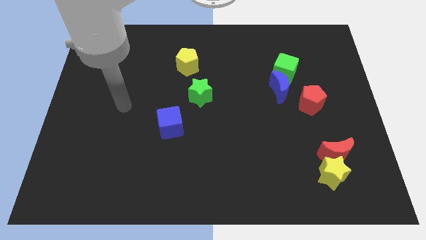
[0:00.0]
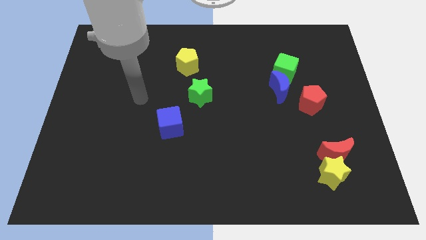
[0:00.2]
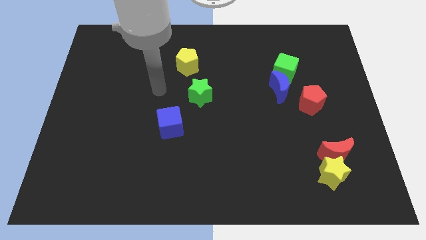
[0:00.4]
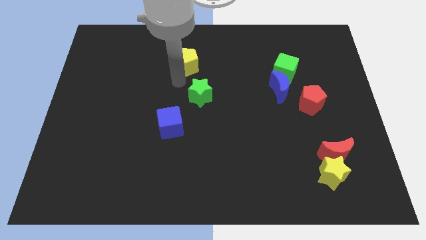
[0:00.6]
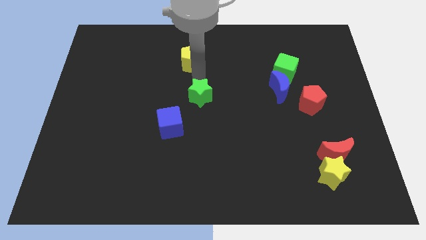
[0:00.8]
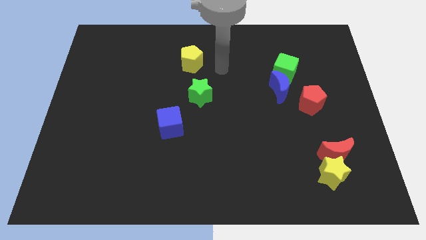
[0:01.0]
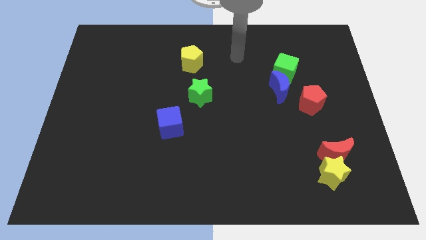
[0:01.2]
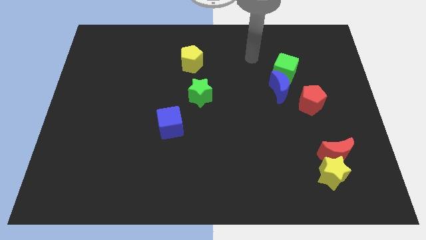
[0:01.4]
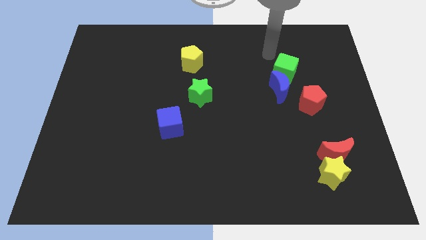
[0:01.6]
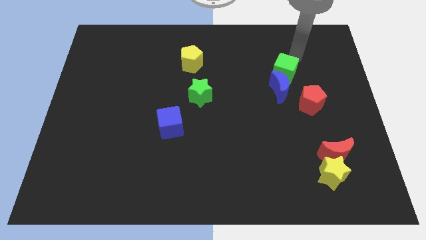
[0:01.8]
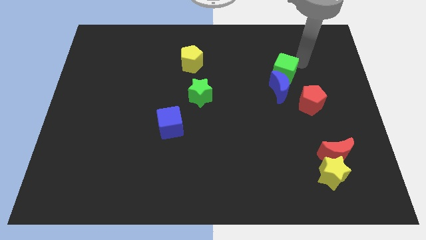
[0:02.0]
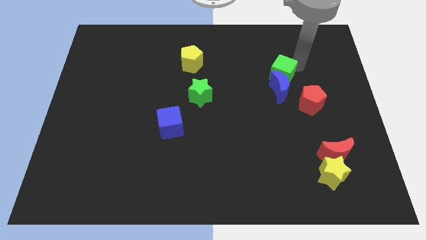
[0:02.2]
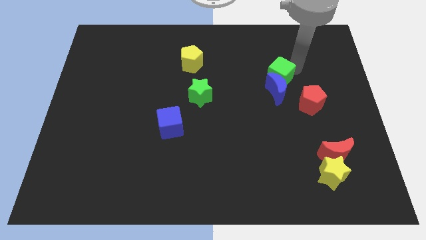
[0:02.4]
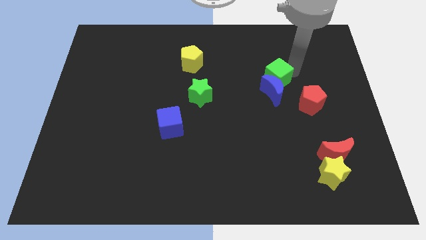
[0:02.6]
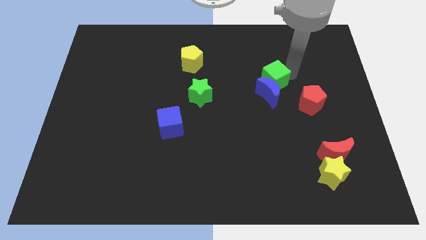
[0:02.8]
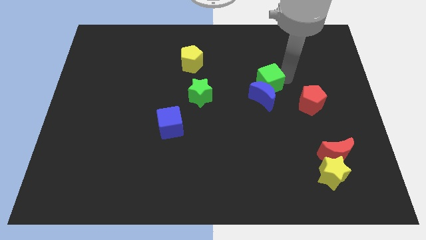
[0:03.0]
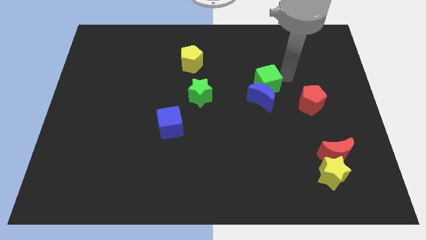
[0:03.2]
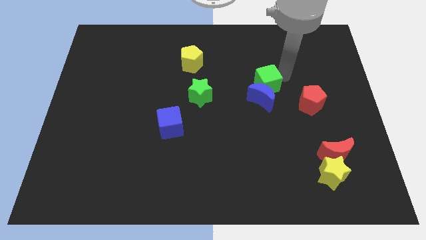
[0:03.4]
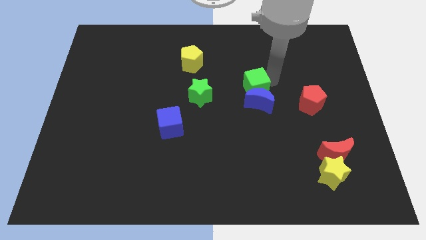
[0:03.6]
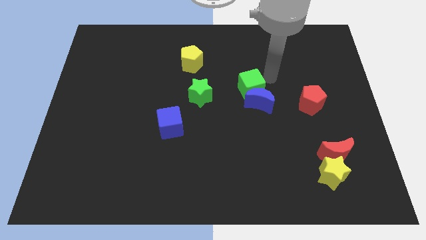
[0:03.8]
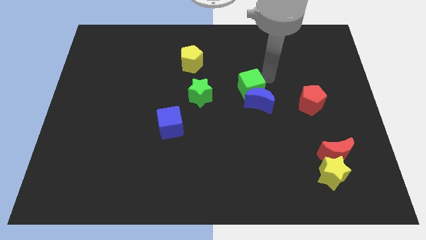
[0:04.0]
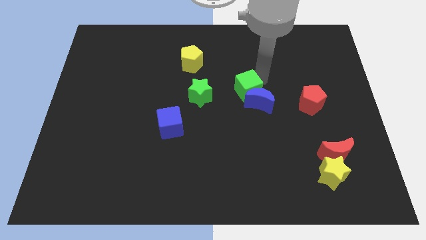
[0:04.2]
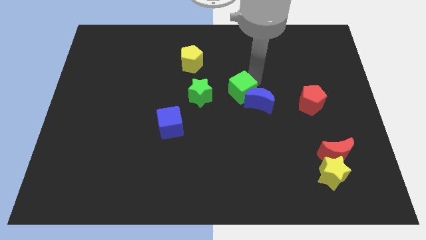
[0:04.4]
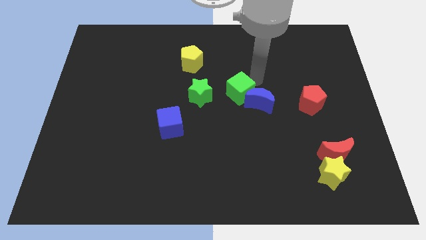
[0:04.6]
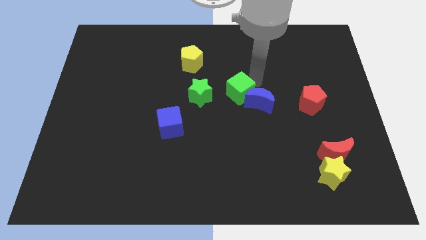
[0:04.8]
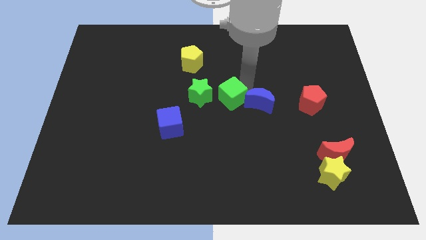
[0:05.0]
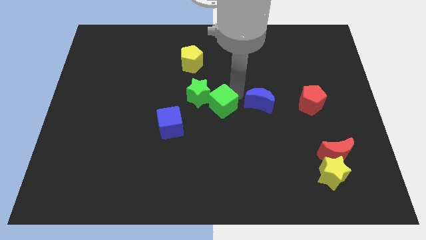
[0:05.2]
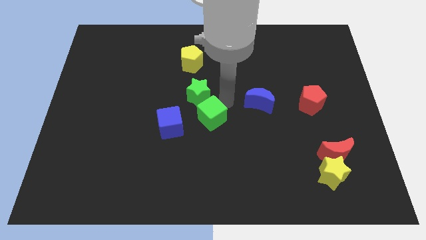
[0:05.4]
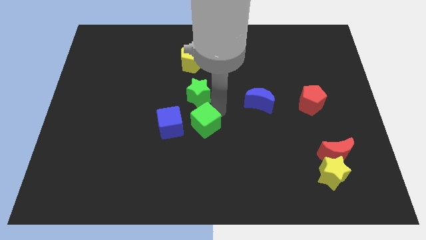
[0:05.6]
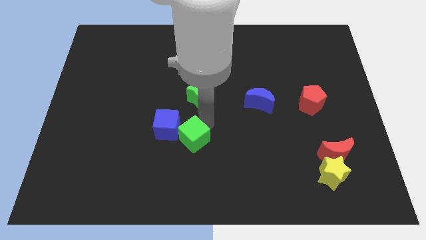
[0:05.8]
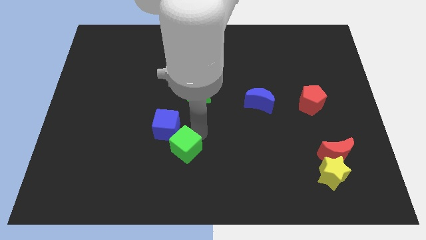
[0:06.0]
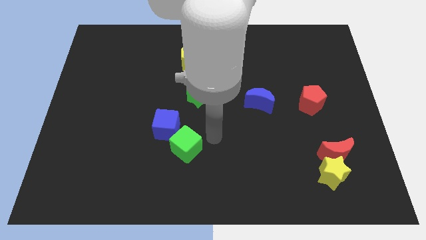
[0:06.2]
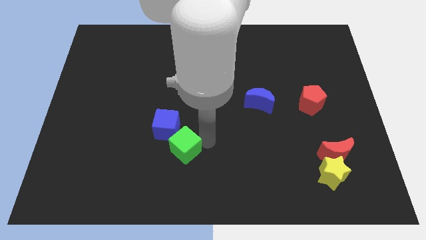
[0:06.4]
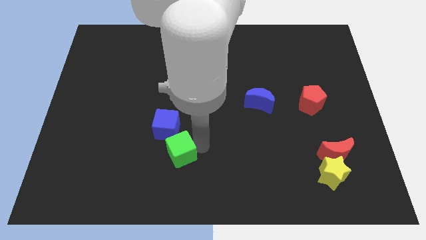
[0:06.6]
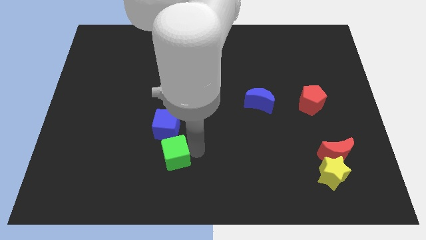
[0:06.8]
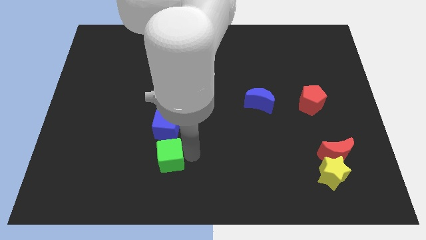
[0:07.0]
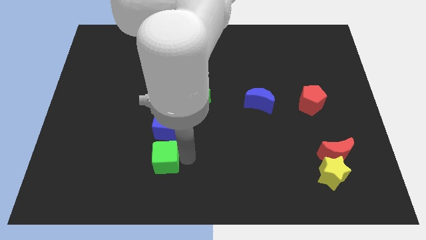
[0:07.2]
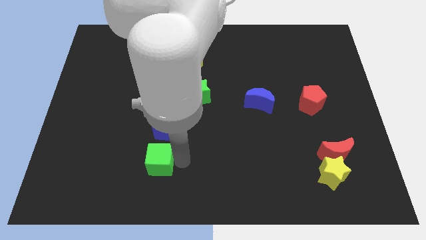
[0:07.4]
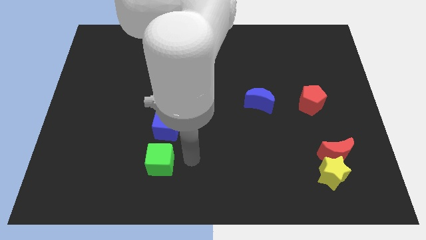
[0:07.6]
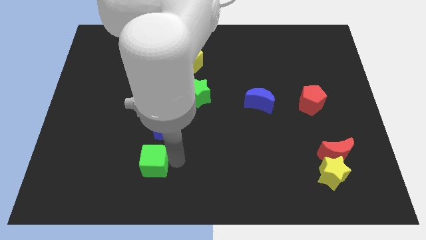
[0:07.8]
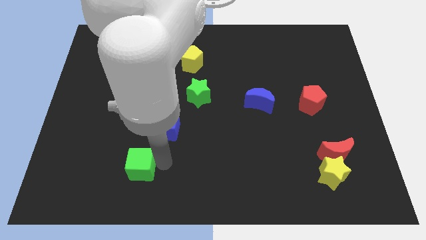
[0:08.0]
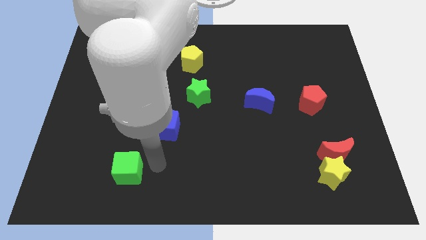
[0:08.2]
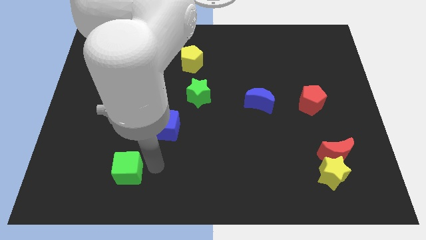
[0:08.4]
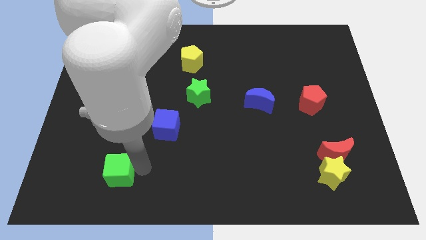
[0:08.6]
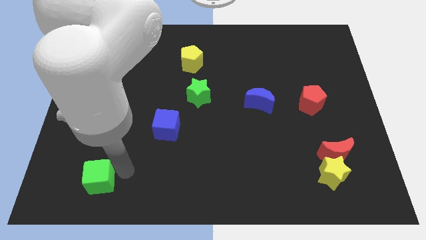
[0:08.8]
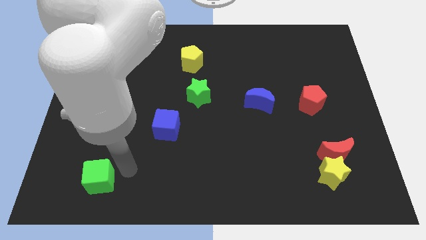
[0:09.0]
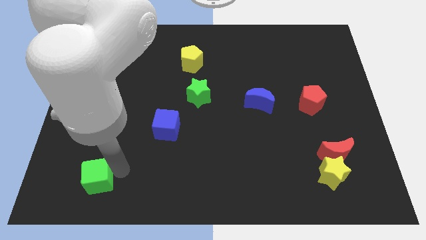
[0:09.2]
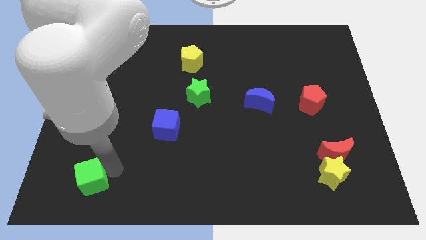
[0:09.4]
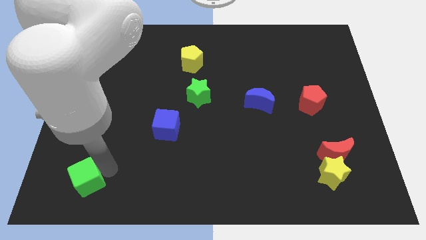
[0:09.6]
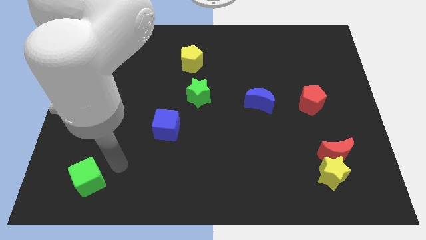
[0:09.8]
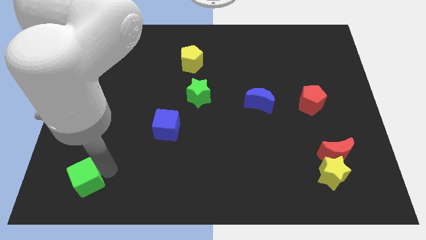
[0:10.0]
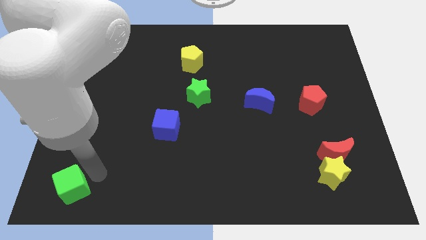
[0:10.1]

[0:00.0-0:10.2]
slide the green cube to the lower left corner

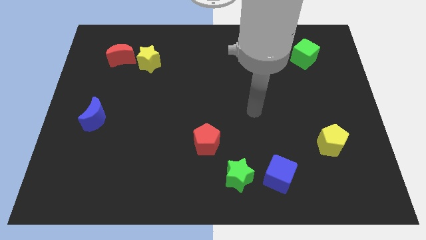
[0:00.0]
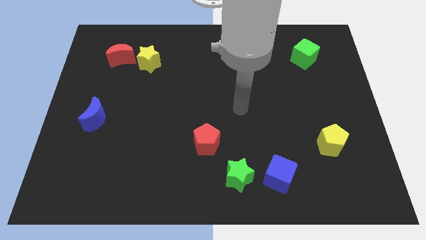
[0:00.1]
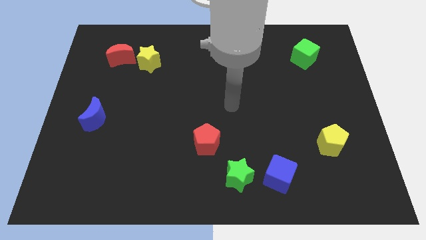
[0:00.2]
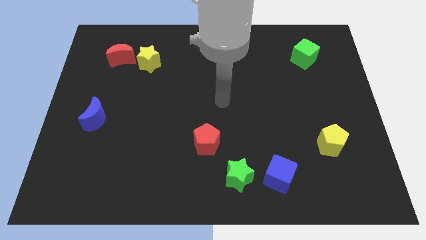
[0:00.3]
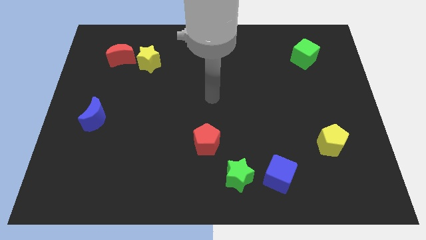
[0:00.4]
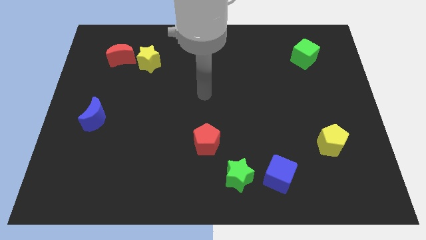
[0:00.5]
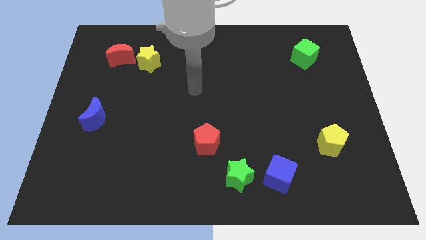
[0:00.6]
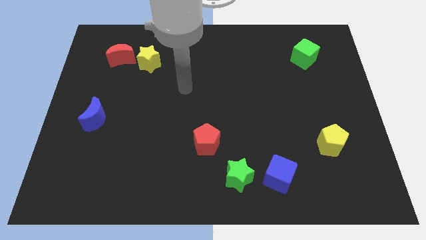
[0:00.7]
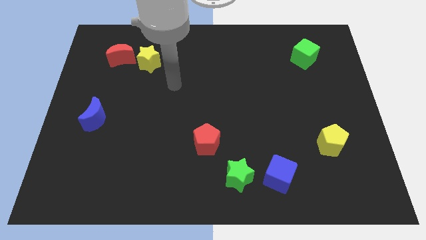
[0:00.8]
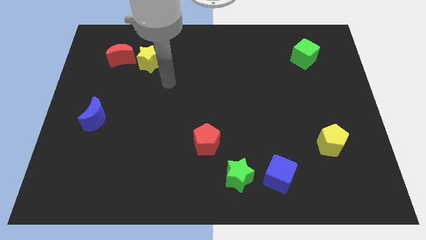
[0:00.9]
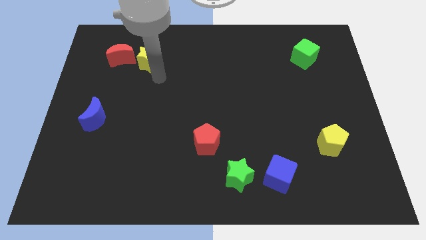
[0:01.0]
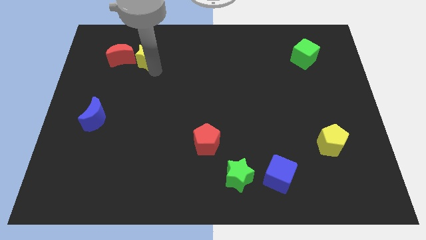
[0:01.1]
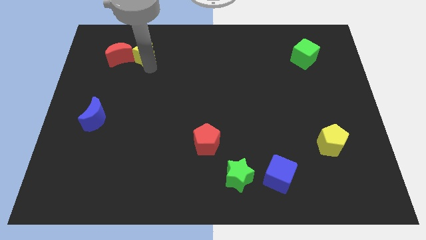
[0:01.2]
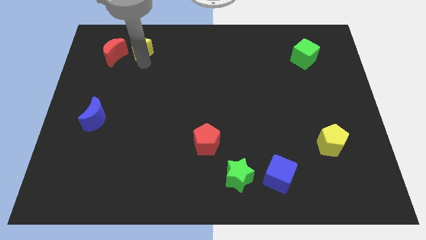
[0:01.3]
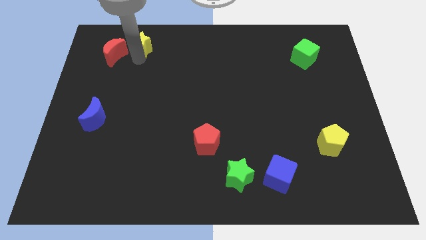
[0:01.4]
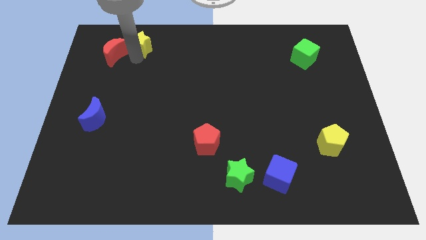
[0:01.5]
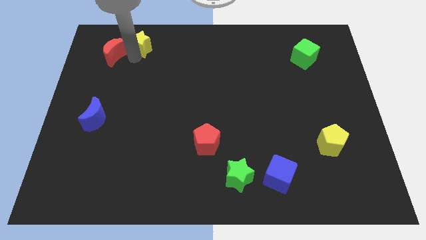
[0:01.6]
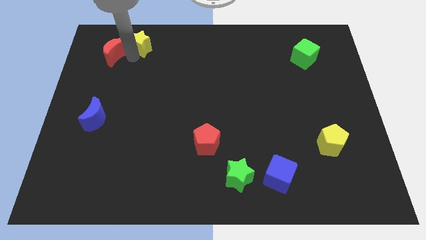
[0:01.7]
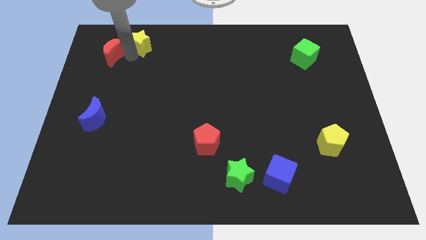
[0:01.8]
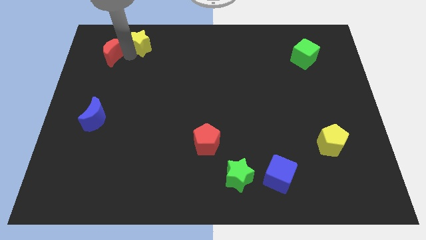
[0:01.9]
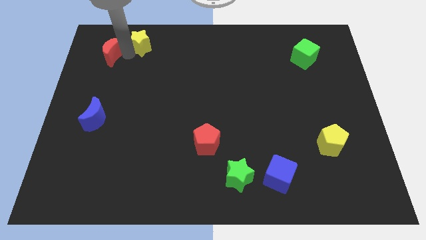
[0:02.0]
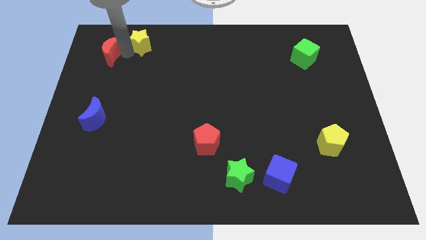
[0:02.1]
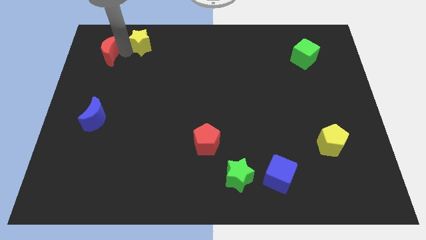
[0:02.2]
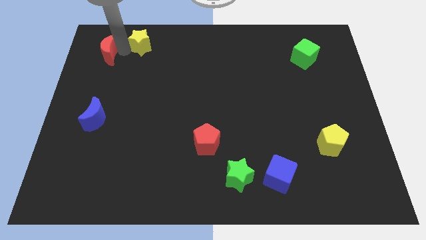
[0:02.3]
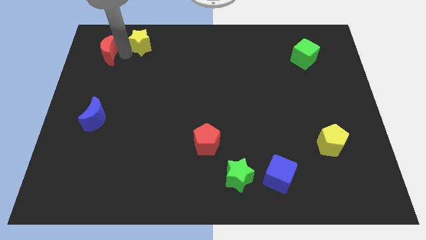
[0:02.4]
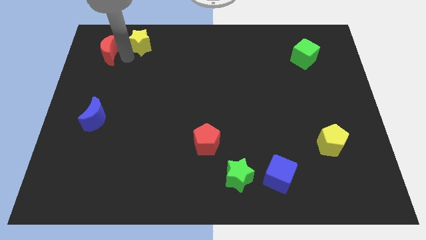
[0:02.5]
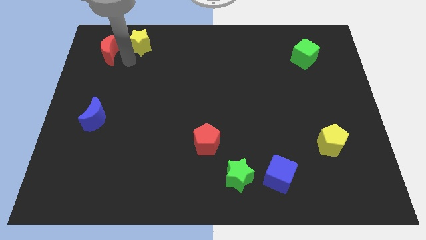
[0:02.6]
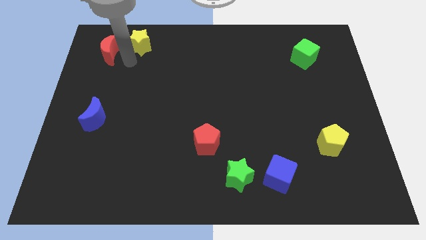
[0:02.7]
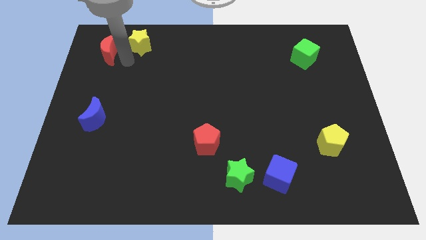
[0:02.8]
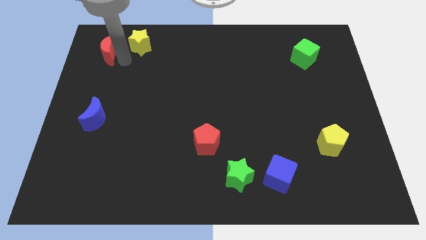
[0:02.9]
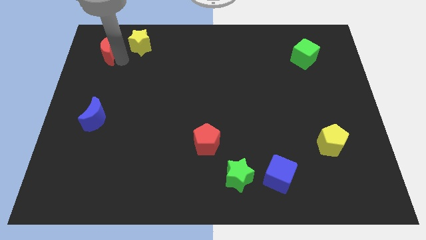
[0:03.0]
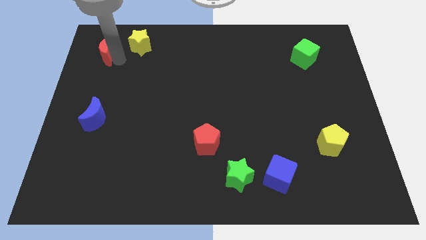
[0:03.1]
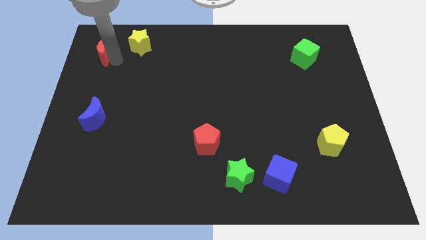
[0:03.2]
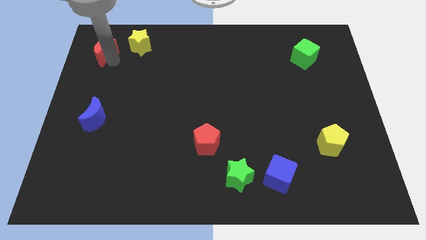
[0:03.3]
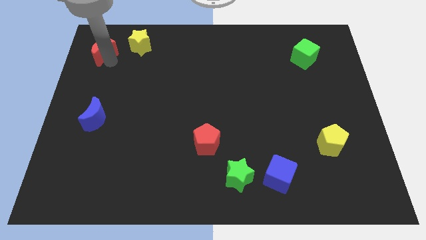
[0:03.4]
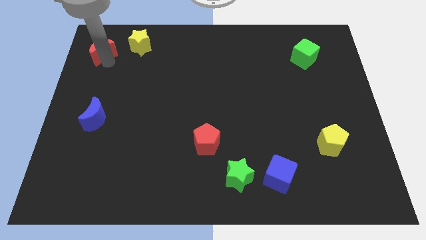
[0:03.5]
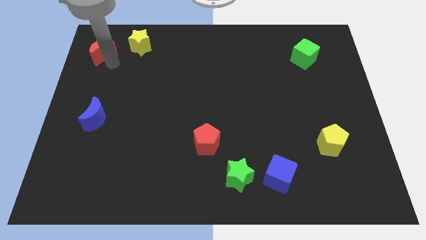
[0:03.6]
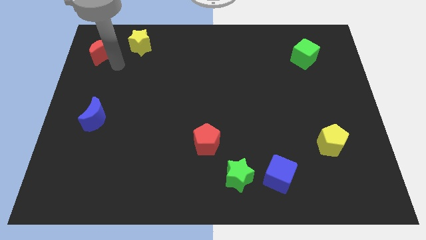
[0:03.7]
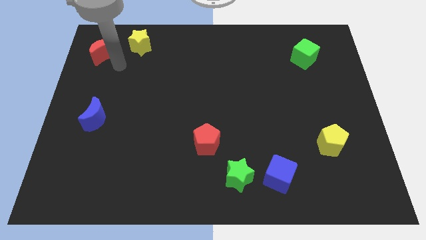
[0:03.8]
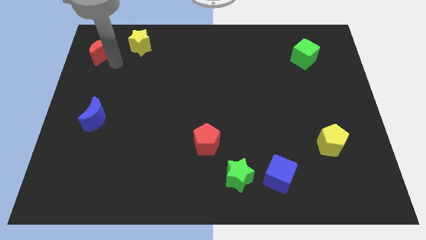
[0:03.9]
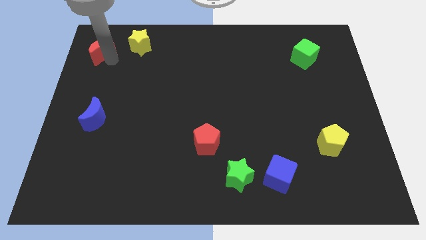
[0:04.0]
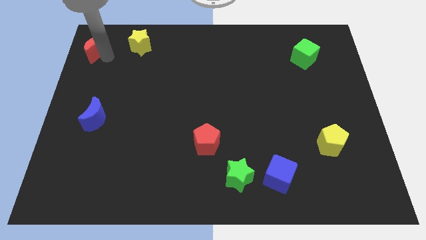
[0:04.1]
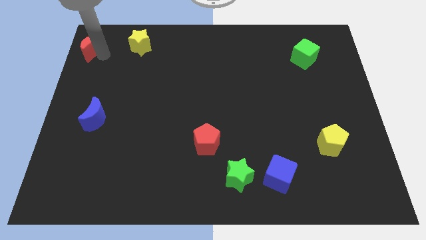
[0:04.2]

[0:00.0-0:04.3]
put the red moon to the top left
